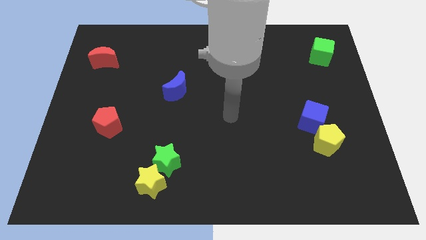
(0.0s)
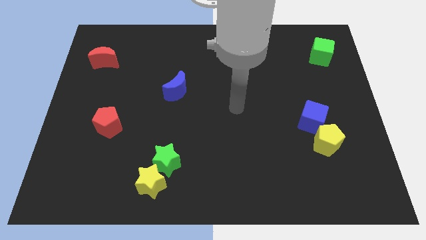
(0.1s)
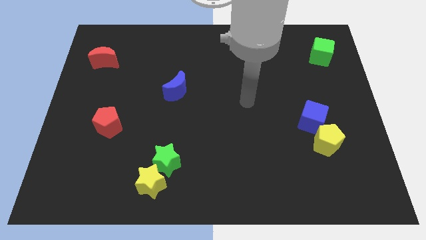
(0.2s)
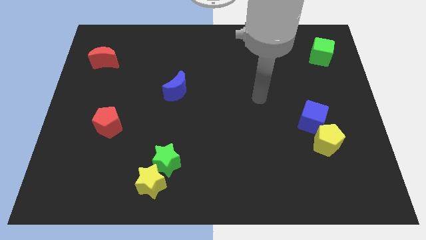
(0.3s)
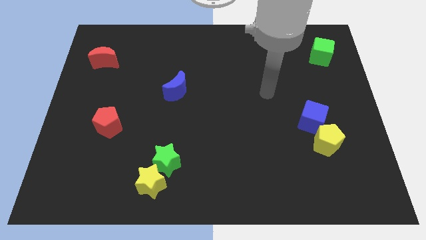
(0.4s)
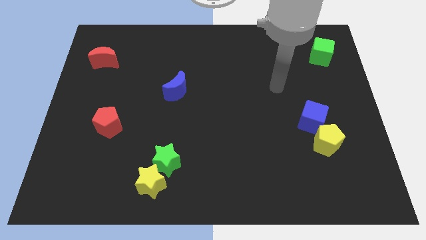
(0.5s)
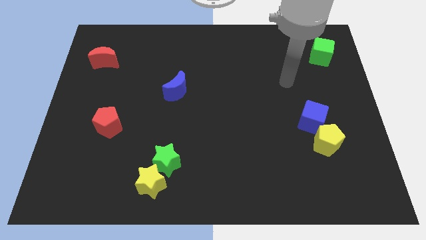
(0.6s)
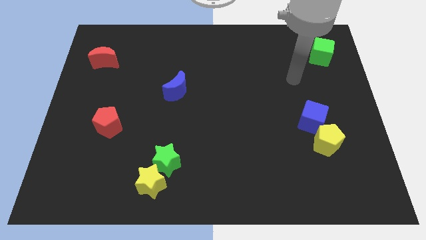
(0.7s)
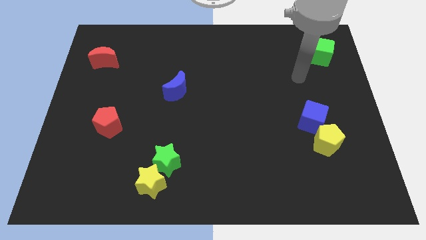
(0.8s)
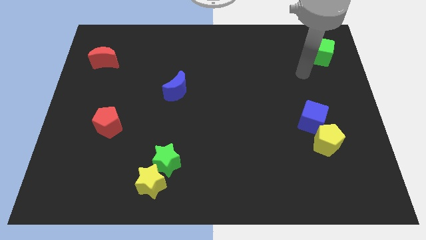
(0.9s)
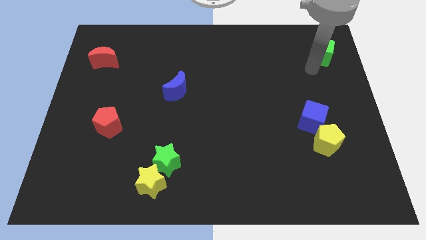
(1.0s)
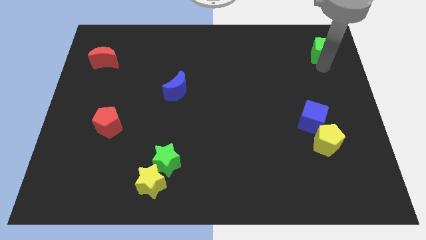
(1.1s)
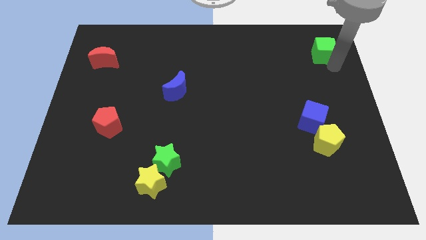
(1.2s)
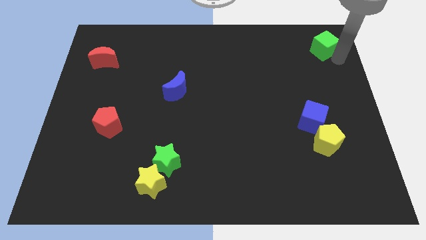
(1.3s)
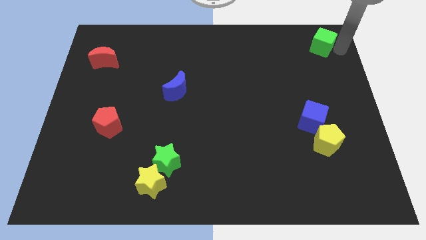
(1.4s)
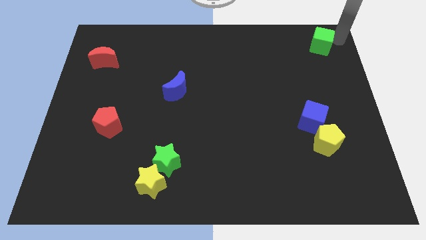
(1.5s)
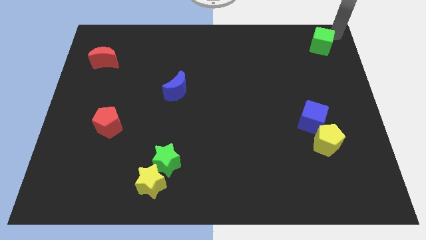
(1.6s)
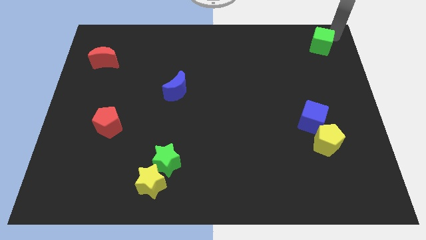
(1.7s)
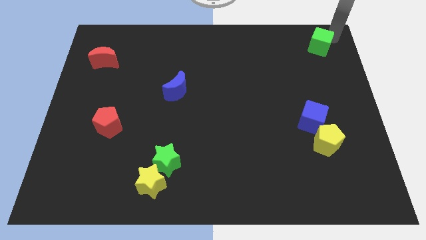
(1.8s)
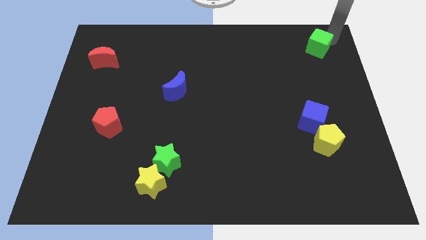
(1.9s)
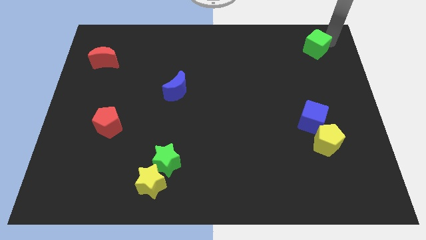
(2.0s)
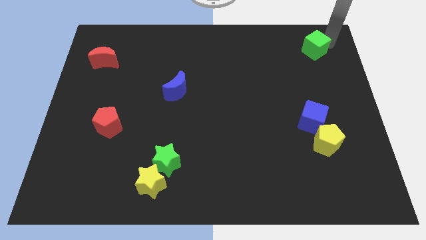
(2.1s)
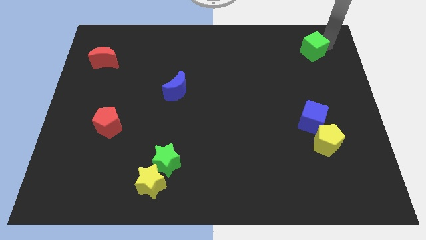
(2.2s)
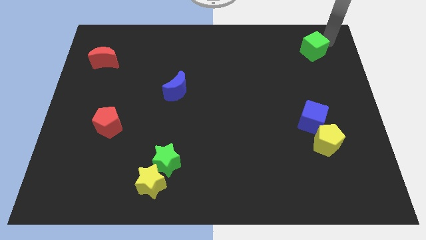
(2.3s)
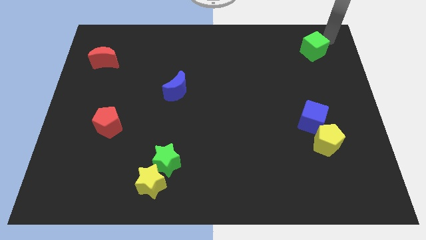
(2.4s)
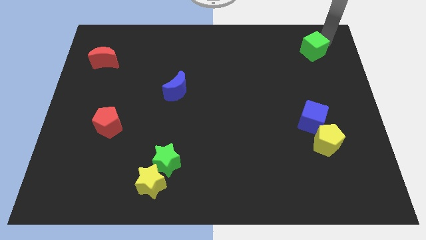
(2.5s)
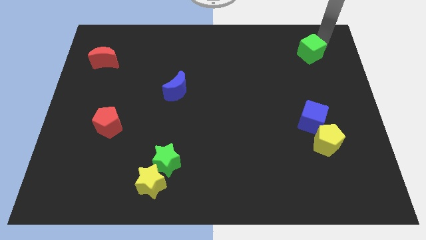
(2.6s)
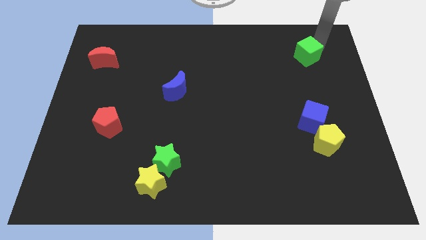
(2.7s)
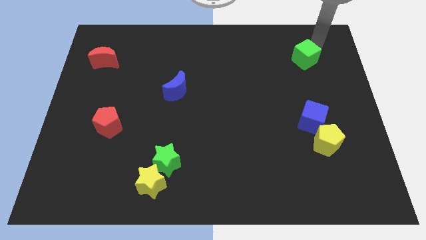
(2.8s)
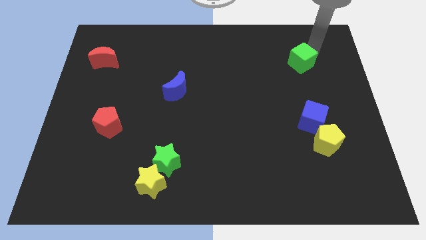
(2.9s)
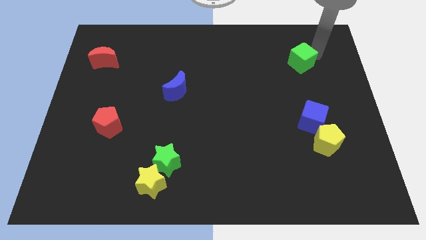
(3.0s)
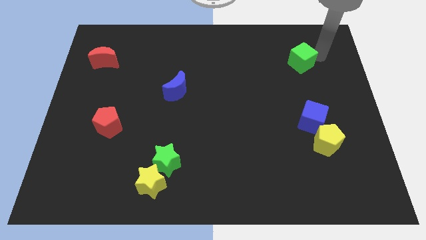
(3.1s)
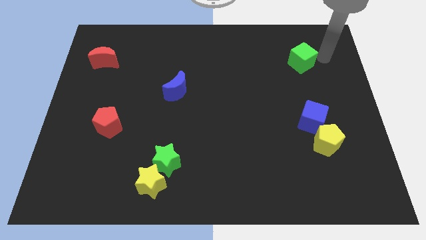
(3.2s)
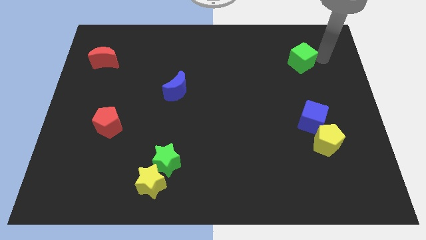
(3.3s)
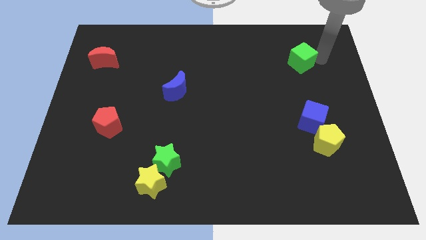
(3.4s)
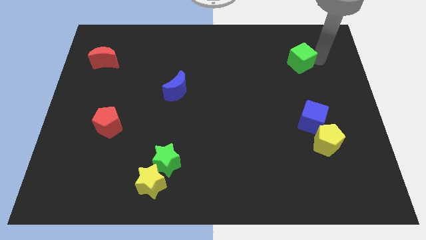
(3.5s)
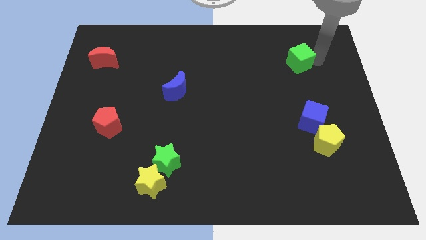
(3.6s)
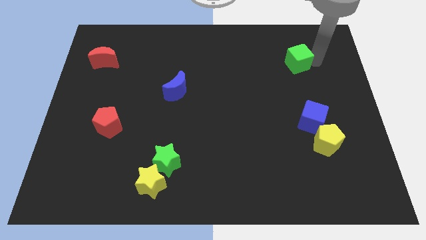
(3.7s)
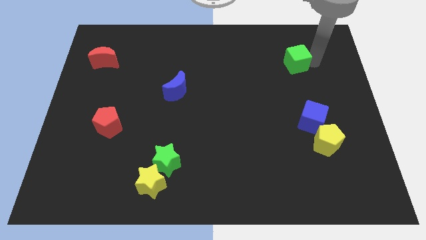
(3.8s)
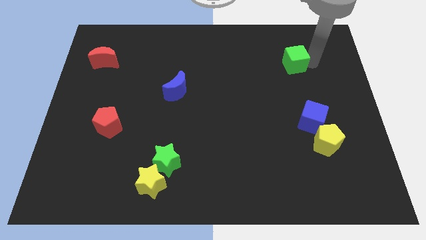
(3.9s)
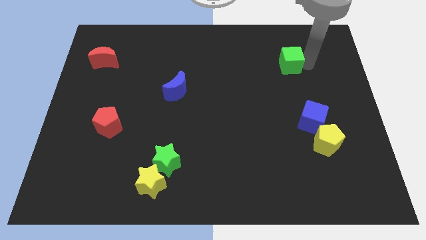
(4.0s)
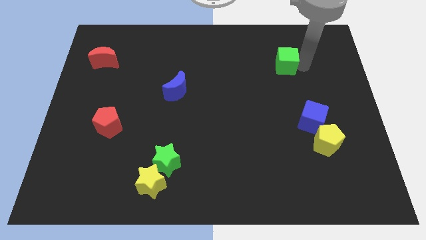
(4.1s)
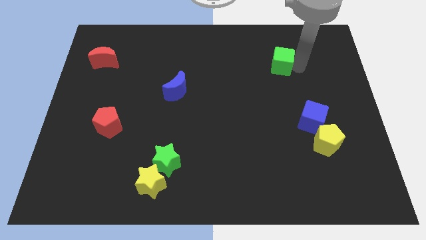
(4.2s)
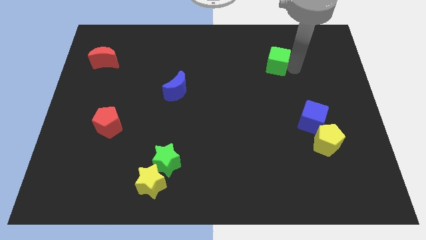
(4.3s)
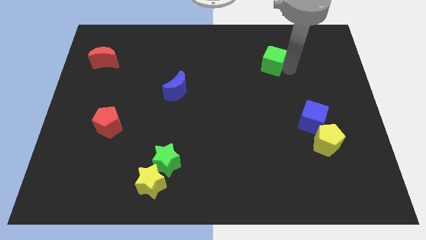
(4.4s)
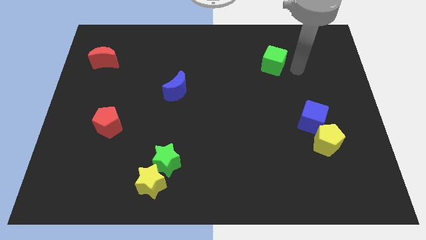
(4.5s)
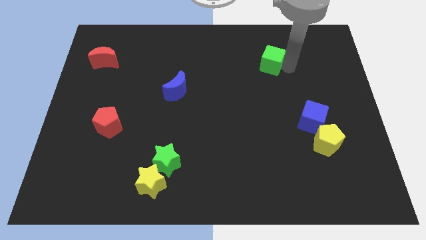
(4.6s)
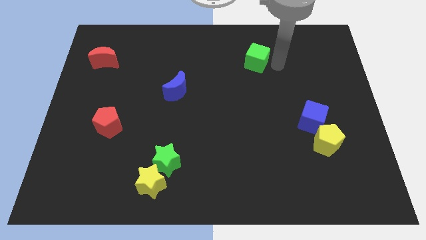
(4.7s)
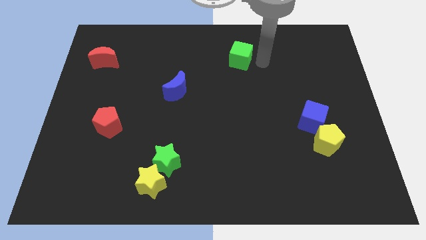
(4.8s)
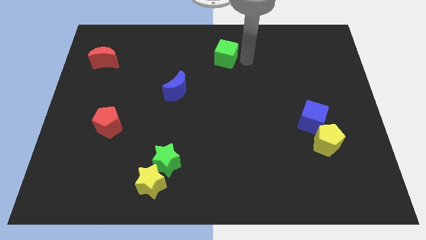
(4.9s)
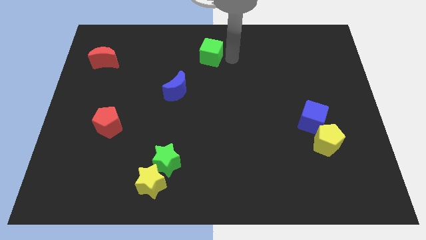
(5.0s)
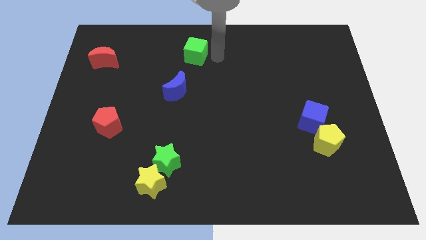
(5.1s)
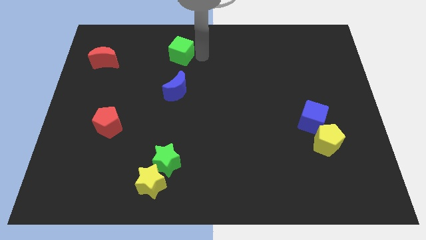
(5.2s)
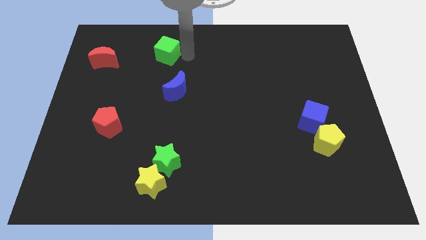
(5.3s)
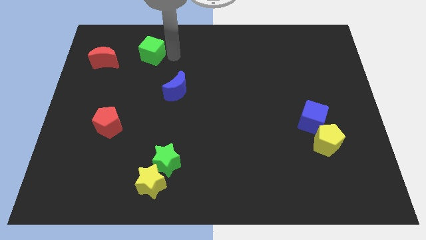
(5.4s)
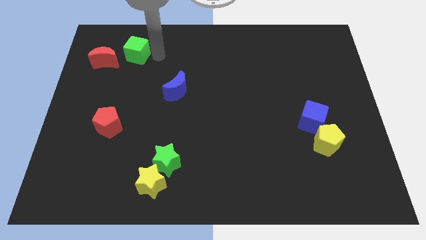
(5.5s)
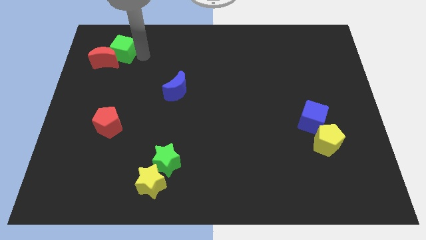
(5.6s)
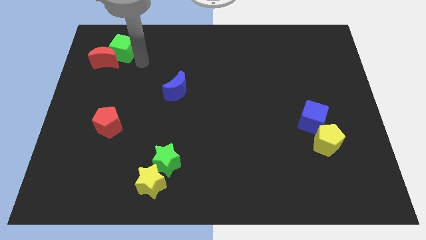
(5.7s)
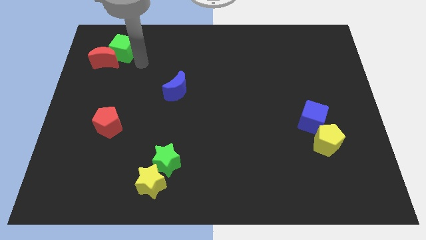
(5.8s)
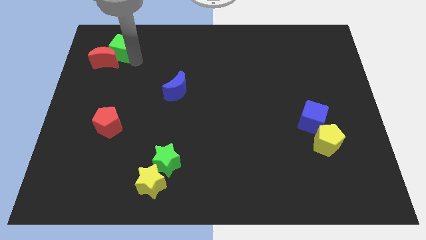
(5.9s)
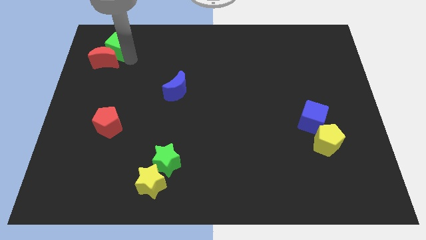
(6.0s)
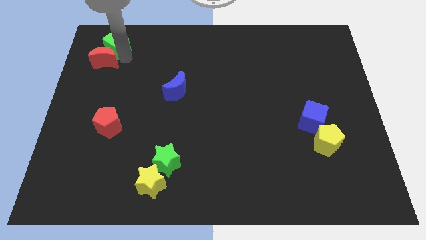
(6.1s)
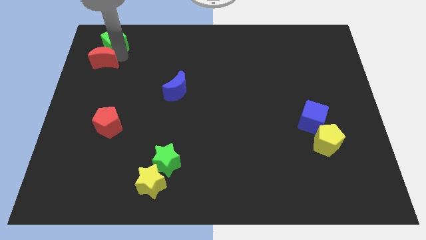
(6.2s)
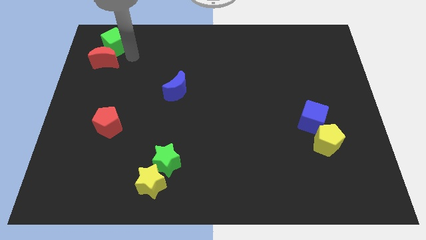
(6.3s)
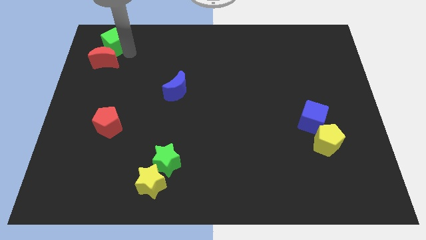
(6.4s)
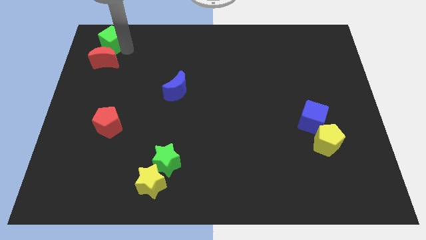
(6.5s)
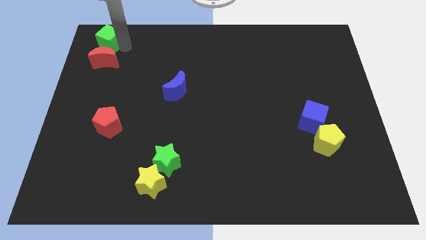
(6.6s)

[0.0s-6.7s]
slide the green cube to the top left of the board
